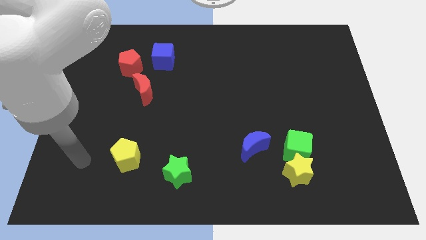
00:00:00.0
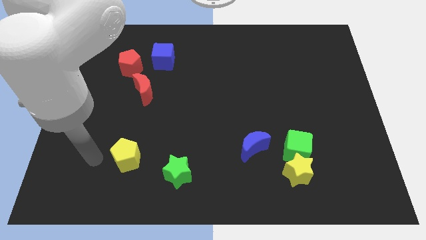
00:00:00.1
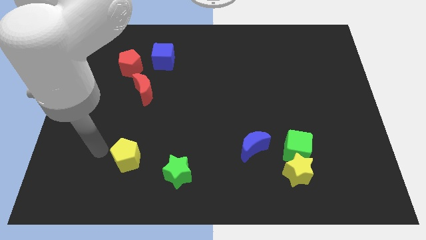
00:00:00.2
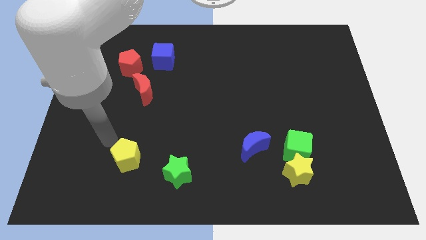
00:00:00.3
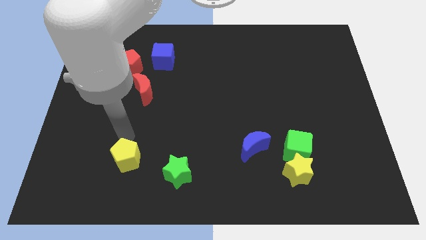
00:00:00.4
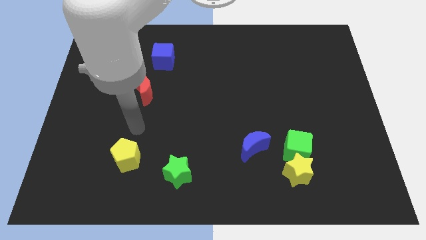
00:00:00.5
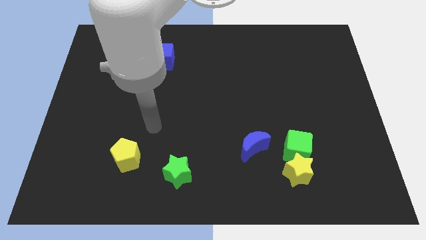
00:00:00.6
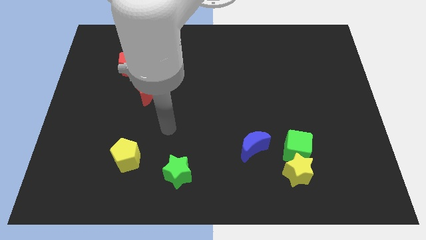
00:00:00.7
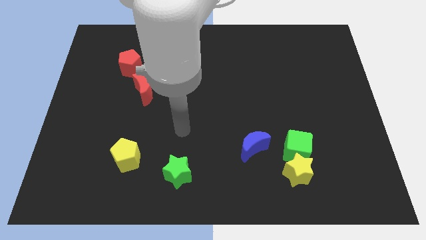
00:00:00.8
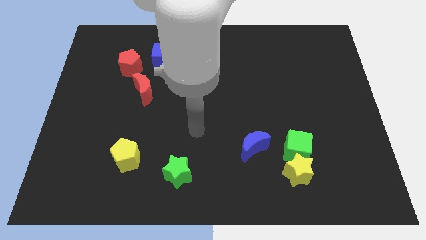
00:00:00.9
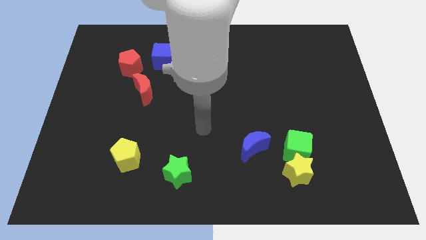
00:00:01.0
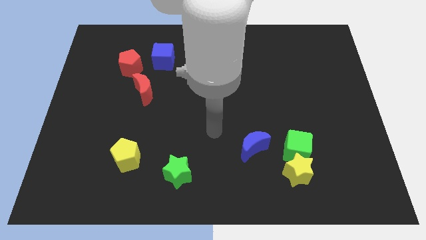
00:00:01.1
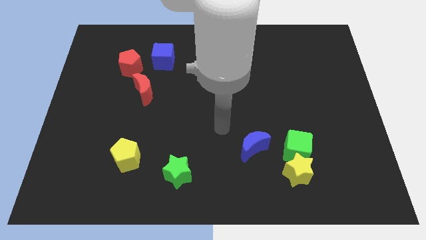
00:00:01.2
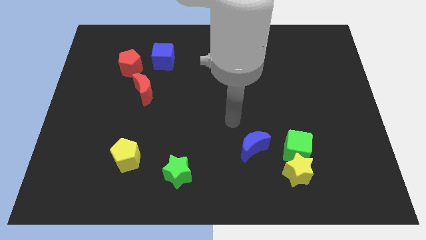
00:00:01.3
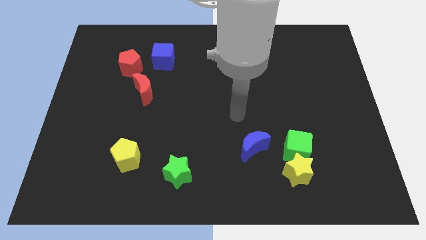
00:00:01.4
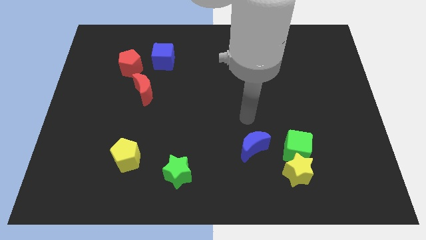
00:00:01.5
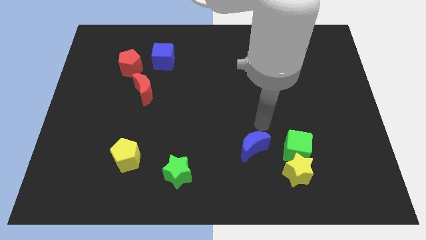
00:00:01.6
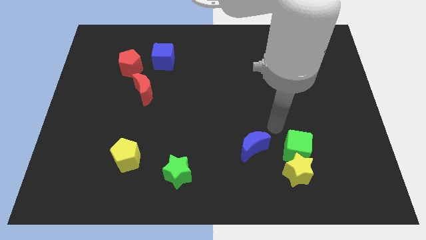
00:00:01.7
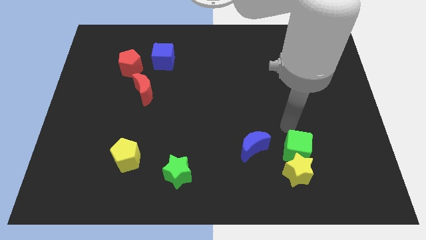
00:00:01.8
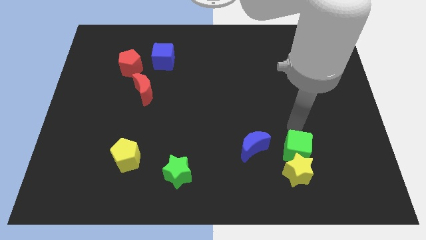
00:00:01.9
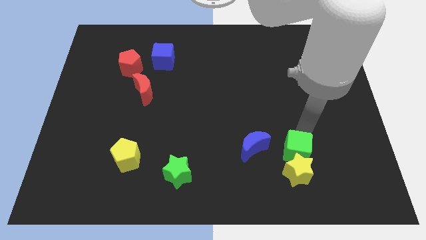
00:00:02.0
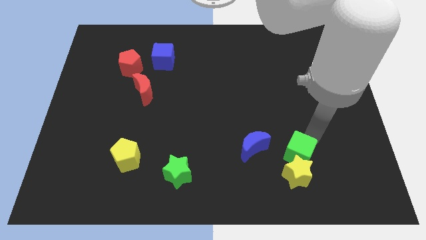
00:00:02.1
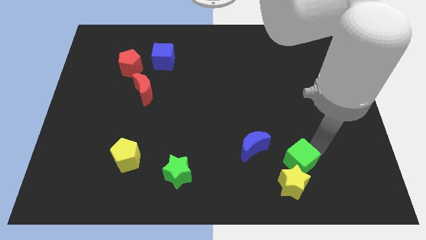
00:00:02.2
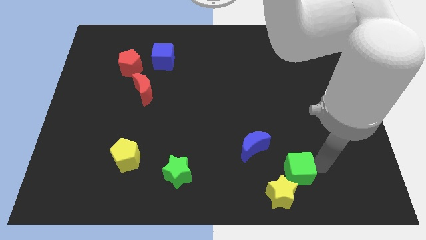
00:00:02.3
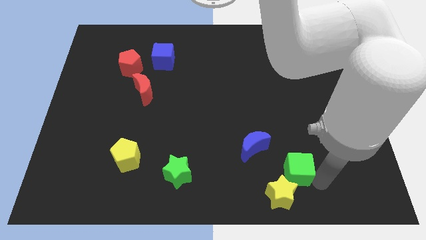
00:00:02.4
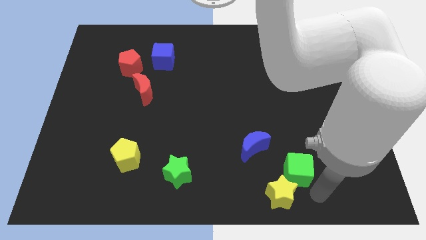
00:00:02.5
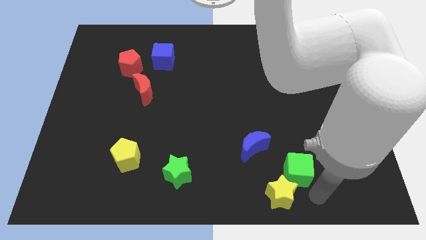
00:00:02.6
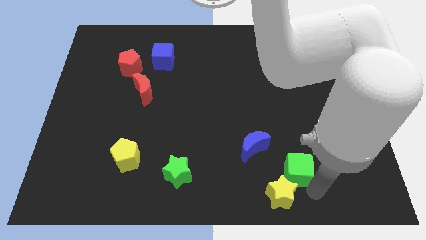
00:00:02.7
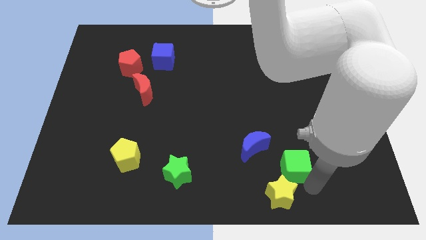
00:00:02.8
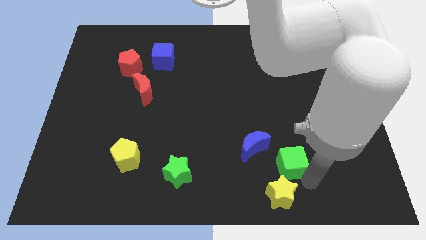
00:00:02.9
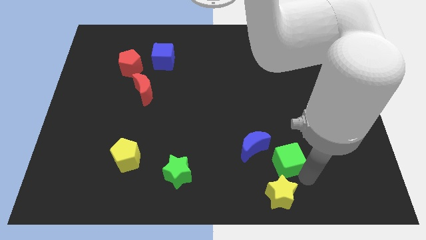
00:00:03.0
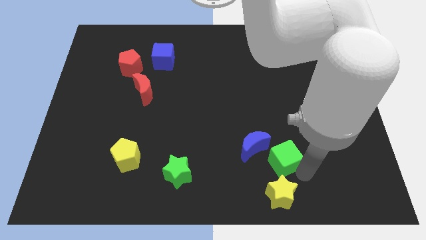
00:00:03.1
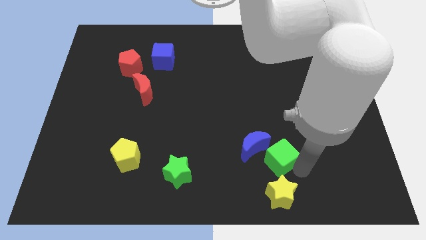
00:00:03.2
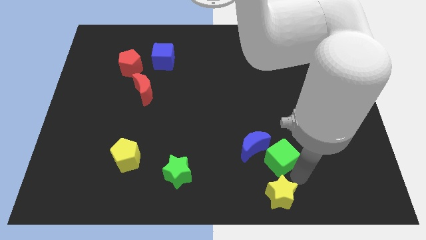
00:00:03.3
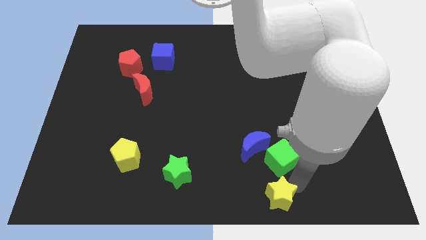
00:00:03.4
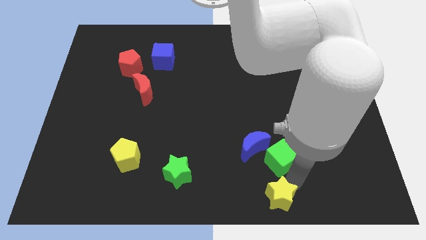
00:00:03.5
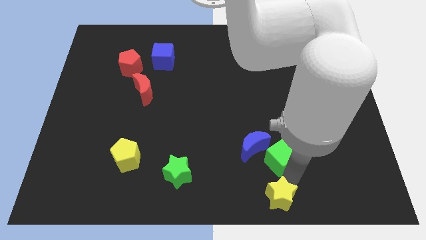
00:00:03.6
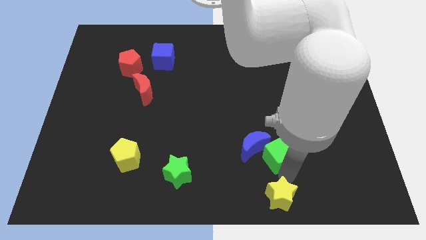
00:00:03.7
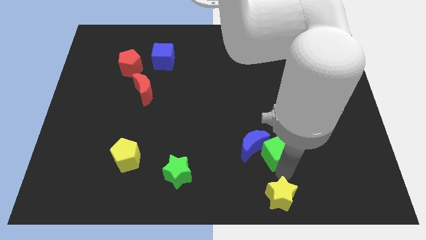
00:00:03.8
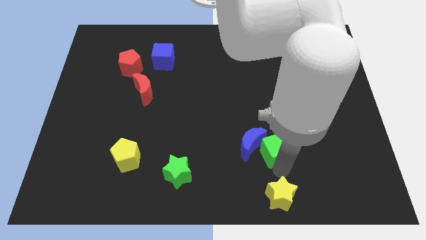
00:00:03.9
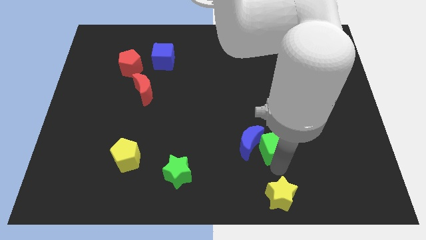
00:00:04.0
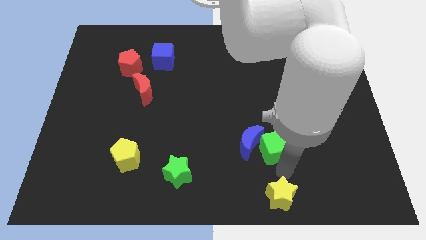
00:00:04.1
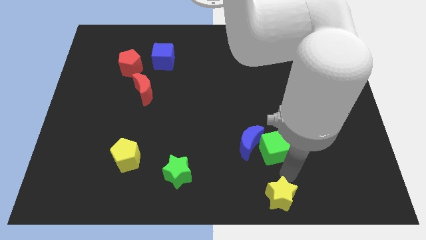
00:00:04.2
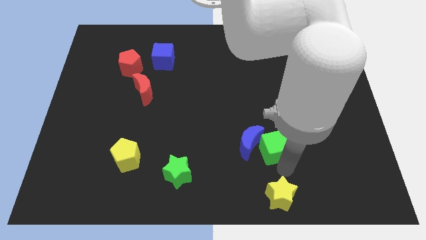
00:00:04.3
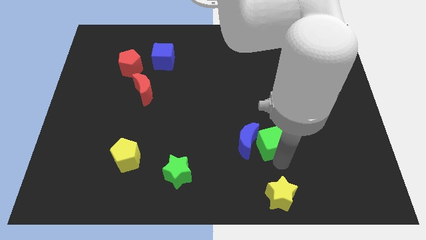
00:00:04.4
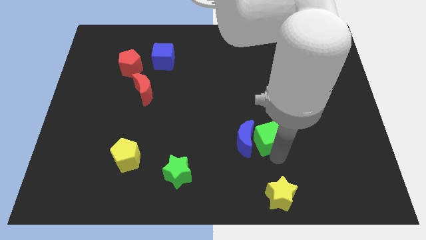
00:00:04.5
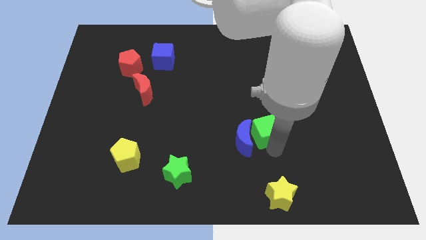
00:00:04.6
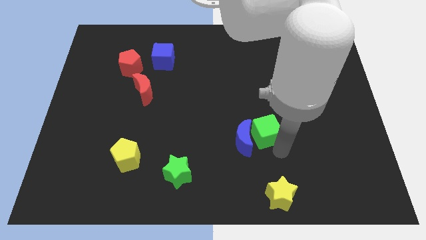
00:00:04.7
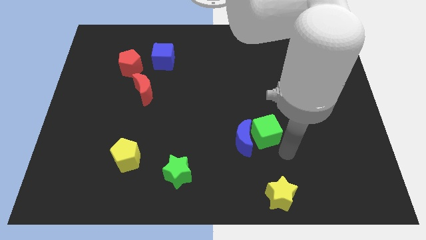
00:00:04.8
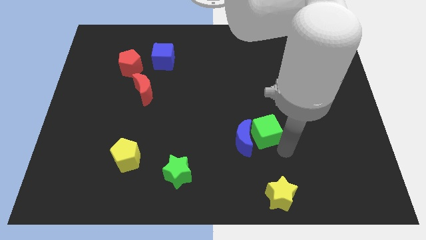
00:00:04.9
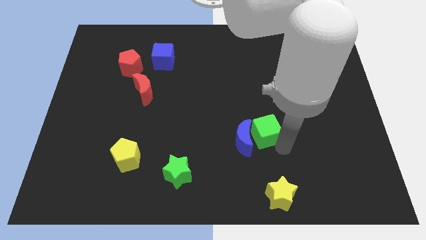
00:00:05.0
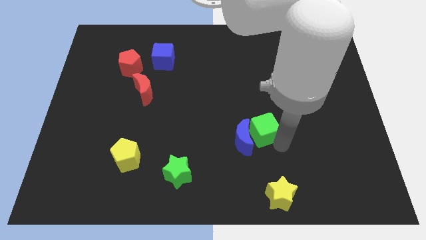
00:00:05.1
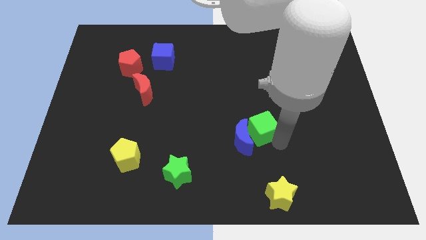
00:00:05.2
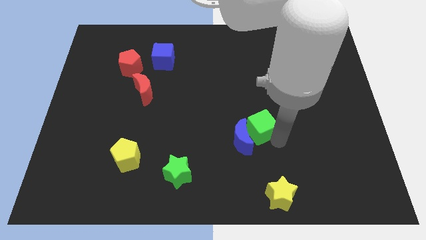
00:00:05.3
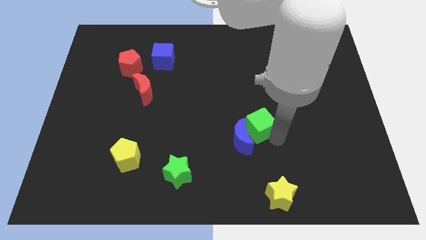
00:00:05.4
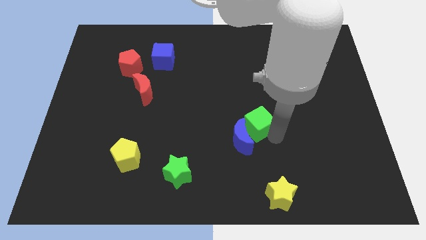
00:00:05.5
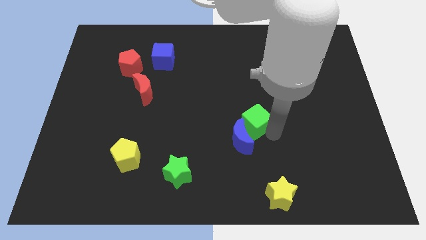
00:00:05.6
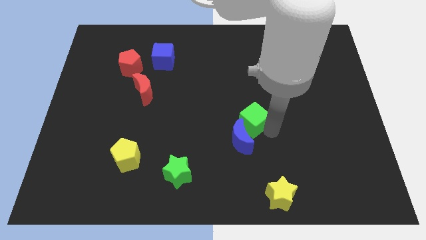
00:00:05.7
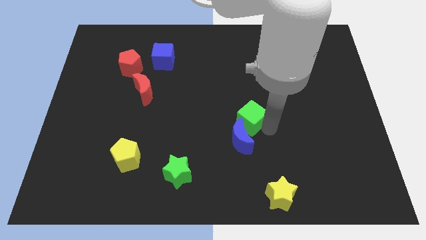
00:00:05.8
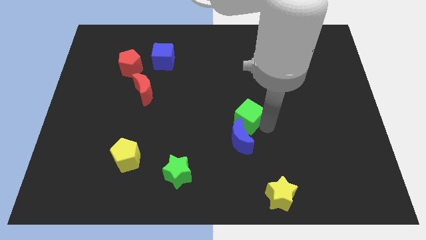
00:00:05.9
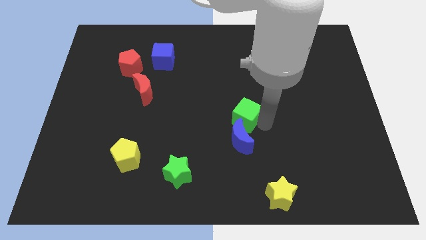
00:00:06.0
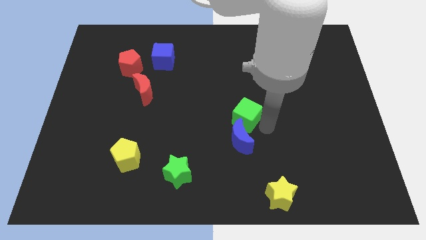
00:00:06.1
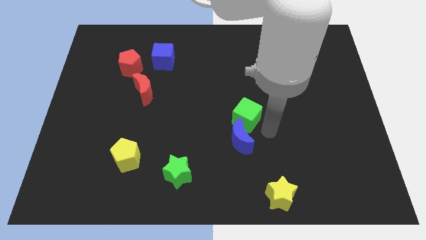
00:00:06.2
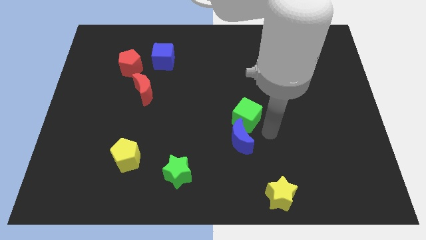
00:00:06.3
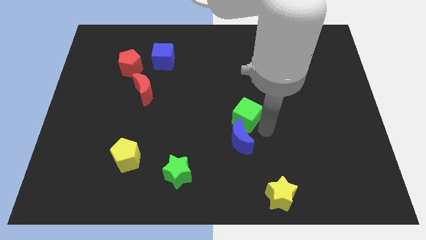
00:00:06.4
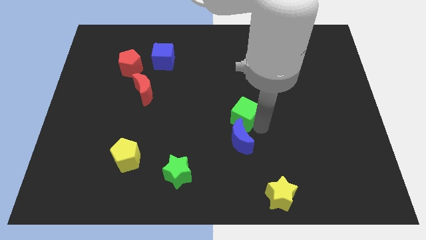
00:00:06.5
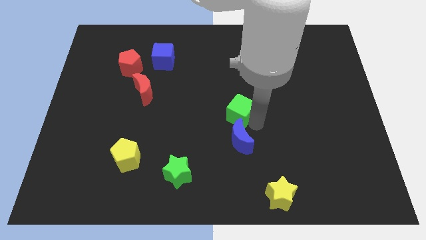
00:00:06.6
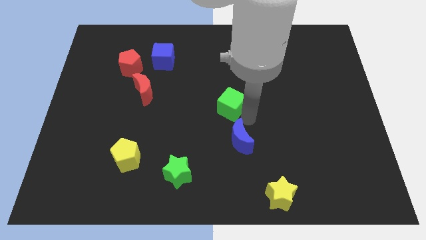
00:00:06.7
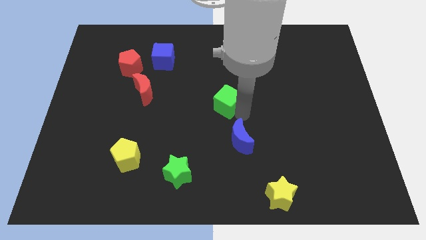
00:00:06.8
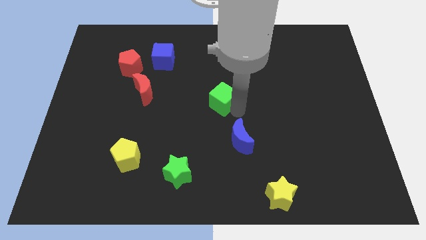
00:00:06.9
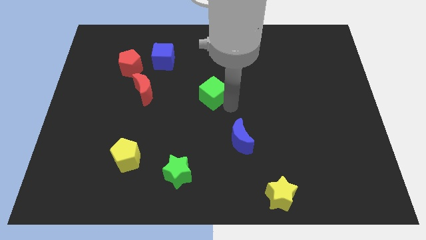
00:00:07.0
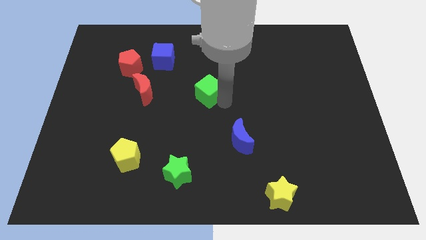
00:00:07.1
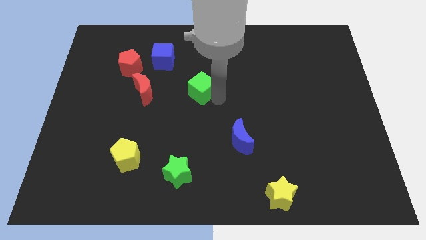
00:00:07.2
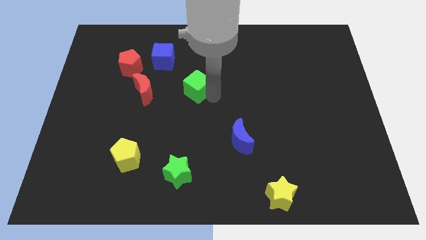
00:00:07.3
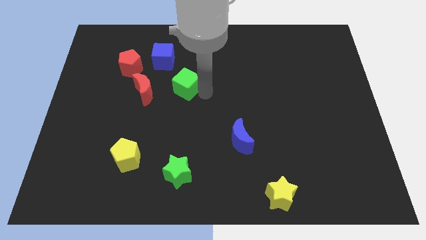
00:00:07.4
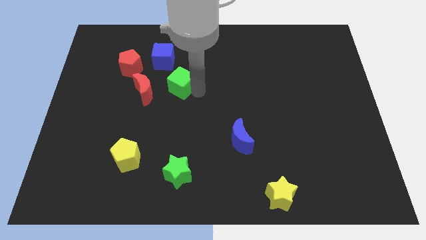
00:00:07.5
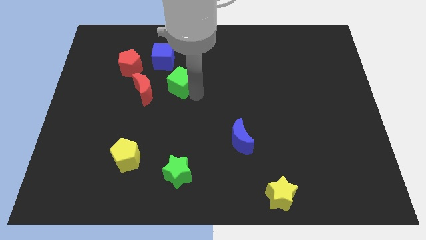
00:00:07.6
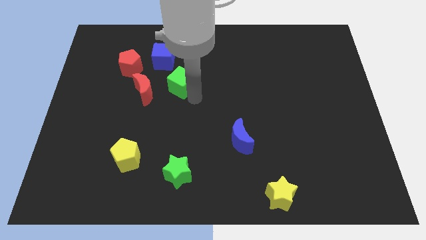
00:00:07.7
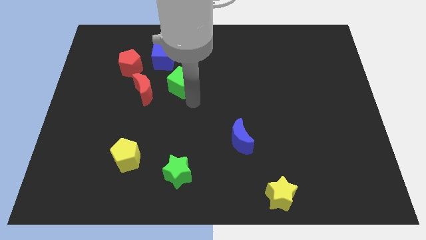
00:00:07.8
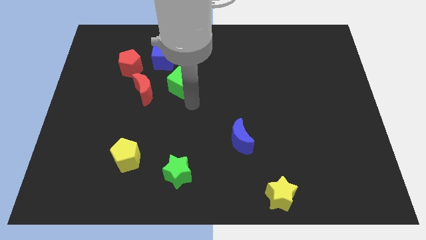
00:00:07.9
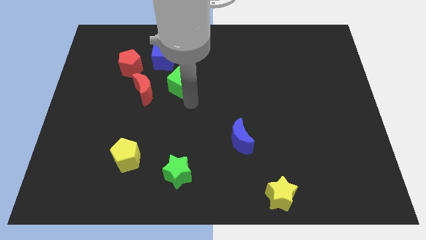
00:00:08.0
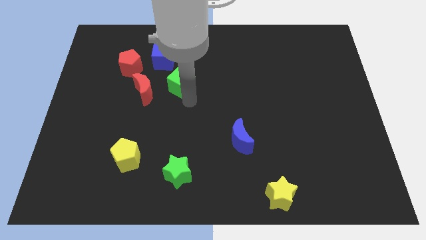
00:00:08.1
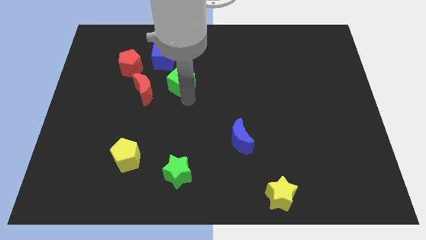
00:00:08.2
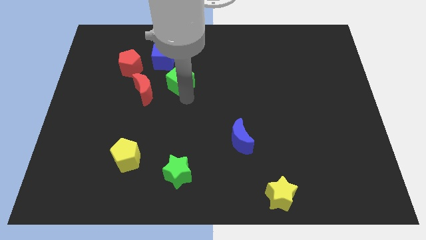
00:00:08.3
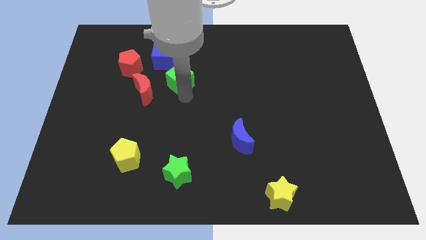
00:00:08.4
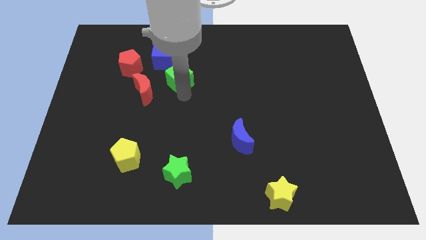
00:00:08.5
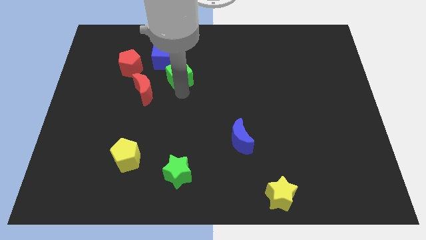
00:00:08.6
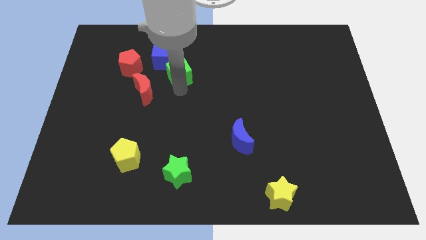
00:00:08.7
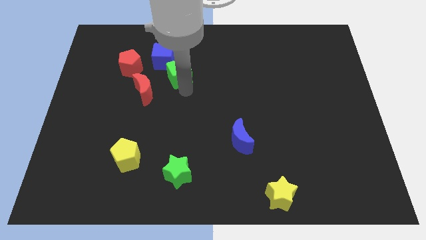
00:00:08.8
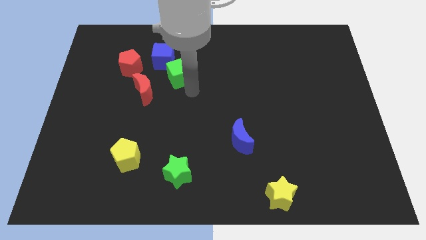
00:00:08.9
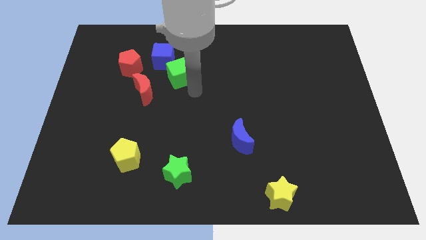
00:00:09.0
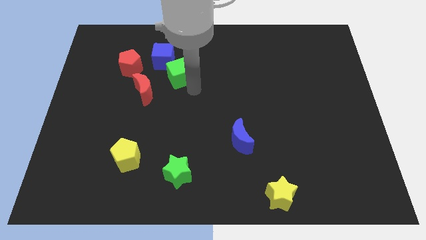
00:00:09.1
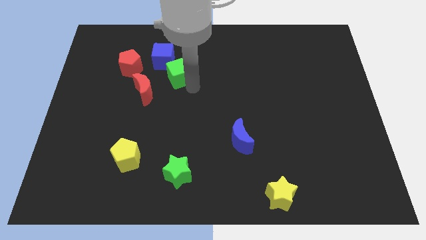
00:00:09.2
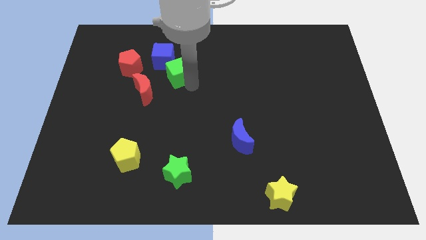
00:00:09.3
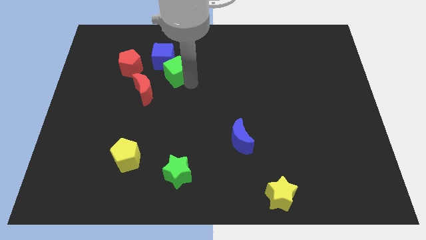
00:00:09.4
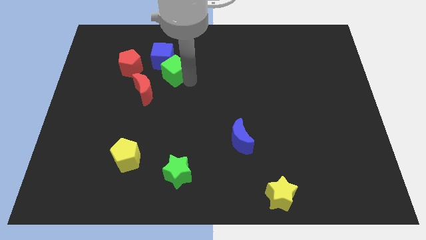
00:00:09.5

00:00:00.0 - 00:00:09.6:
move the green cube close to the blue cube
